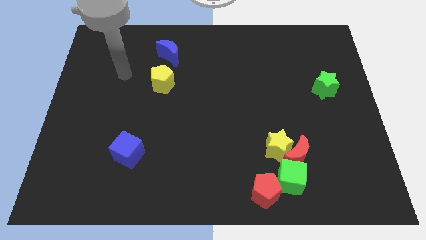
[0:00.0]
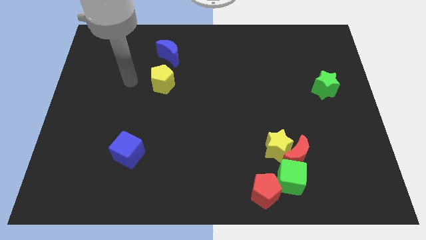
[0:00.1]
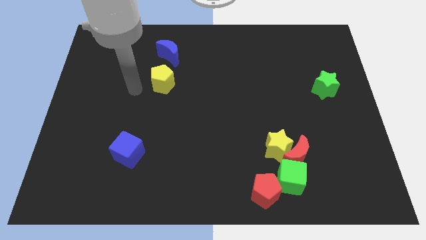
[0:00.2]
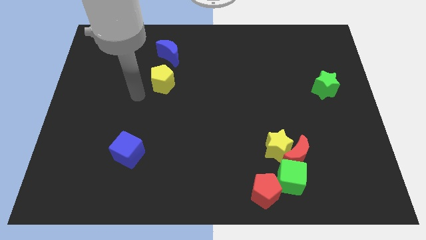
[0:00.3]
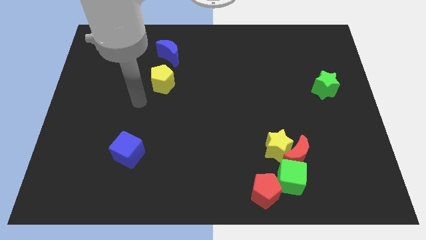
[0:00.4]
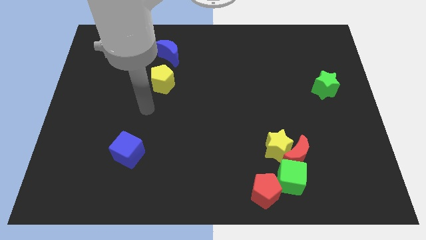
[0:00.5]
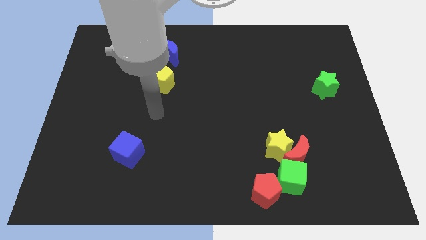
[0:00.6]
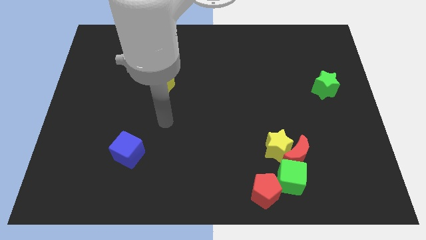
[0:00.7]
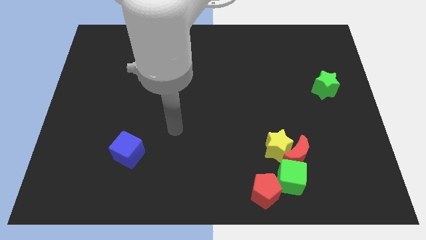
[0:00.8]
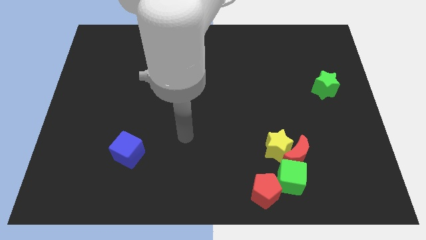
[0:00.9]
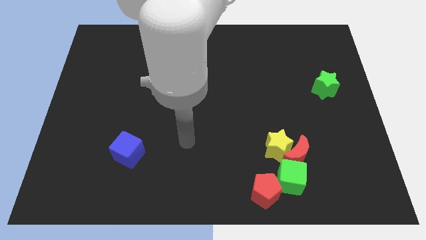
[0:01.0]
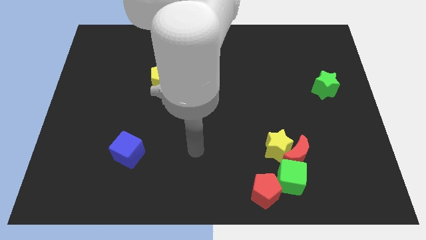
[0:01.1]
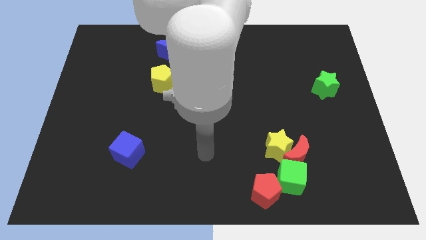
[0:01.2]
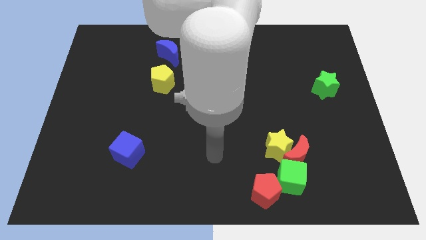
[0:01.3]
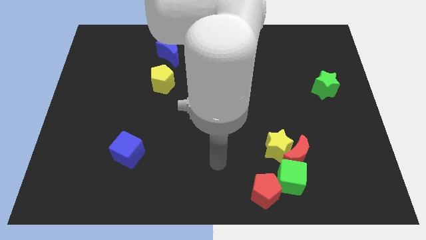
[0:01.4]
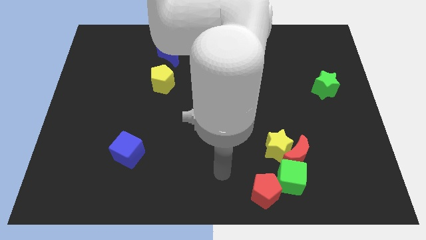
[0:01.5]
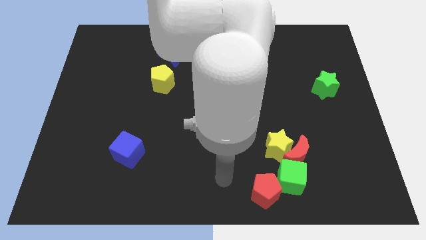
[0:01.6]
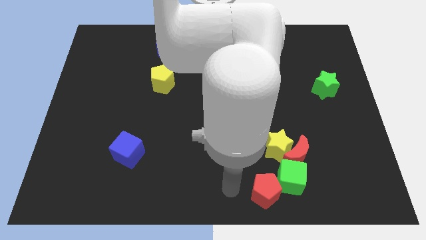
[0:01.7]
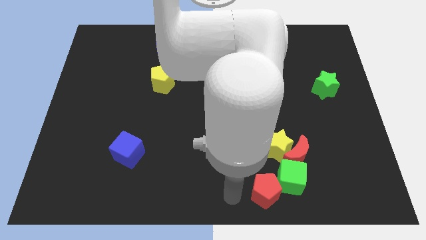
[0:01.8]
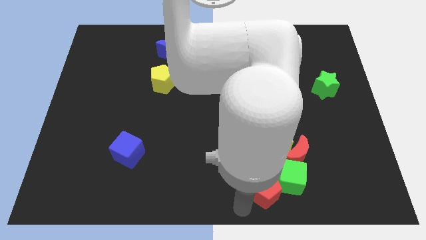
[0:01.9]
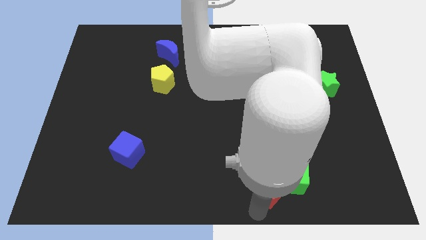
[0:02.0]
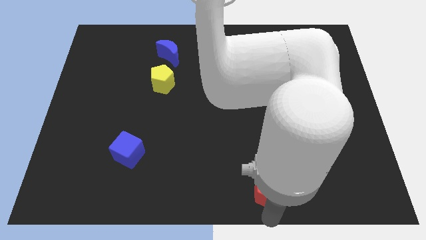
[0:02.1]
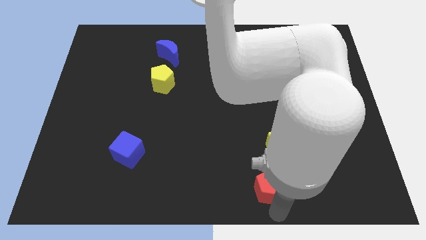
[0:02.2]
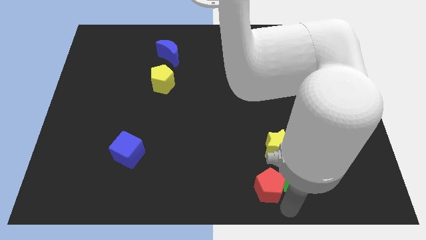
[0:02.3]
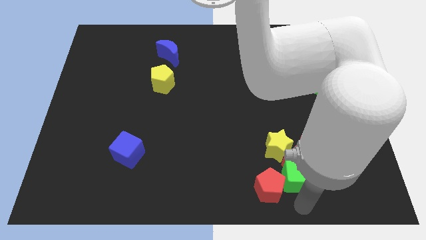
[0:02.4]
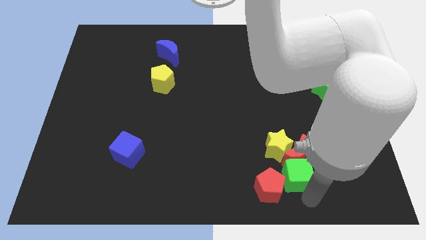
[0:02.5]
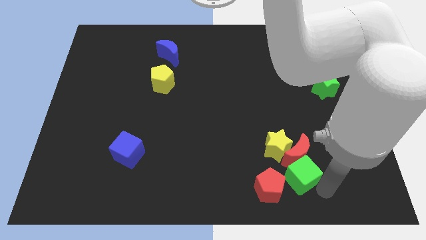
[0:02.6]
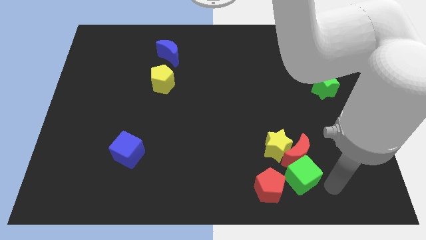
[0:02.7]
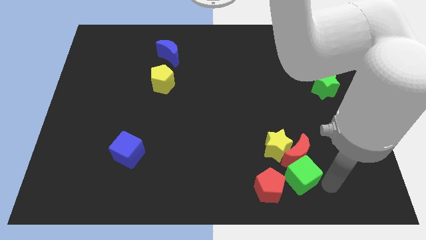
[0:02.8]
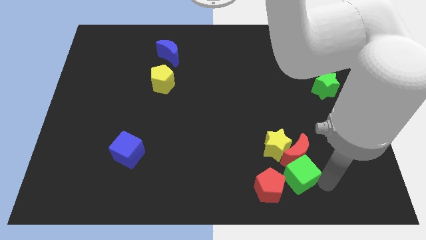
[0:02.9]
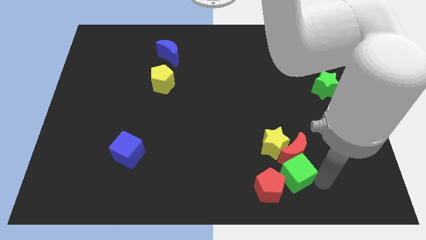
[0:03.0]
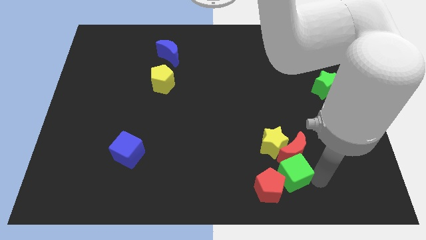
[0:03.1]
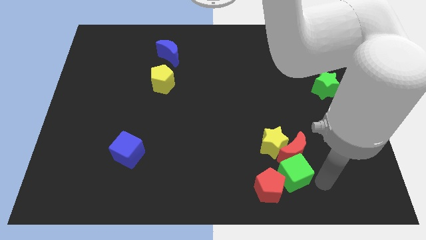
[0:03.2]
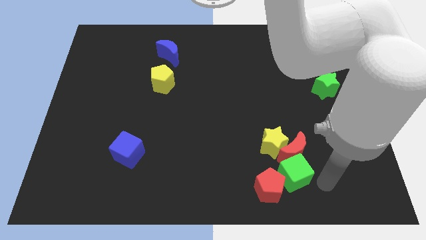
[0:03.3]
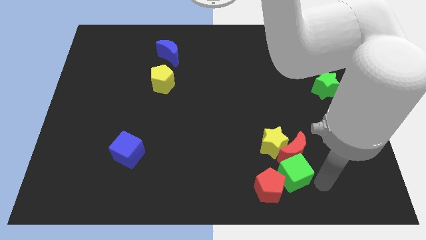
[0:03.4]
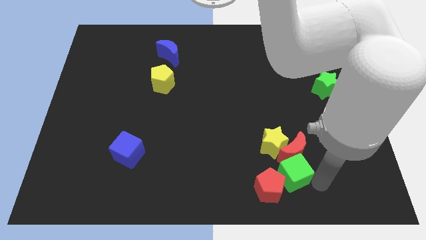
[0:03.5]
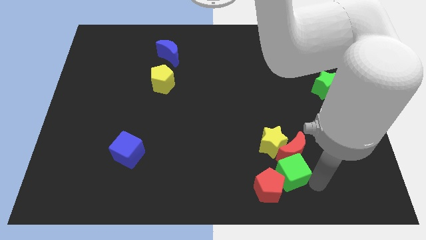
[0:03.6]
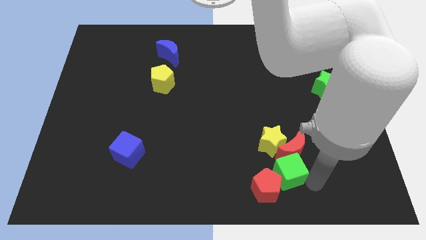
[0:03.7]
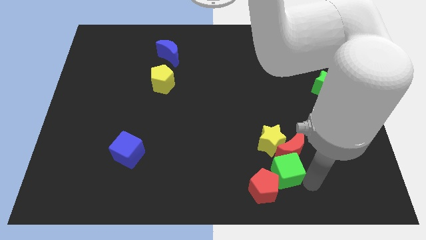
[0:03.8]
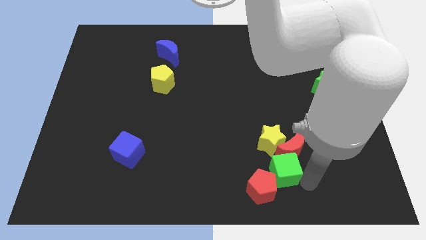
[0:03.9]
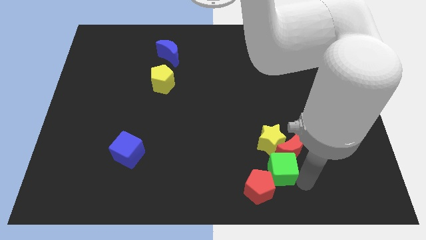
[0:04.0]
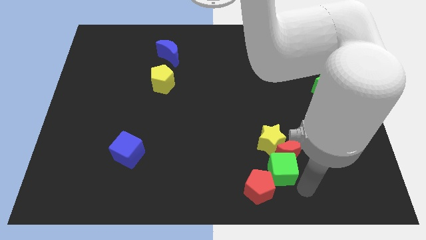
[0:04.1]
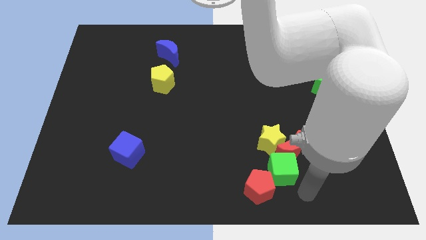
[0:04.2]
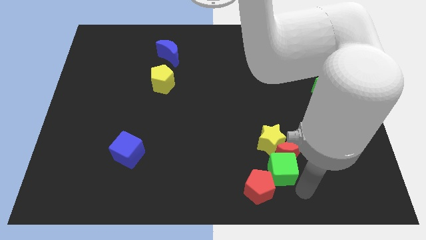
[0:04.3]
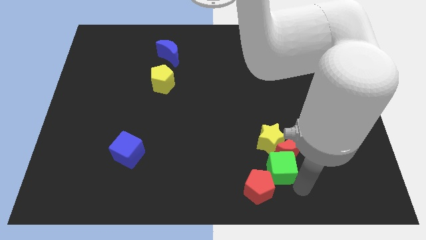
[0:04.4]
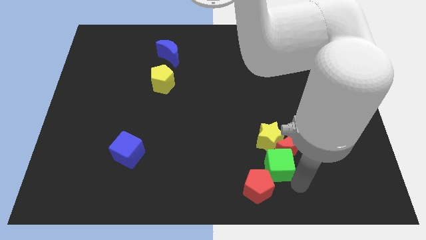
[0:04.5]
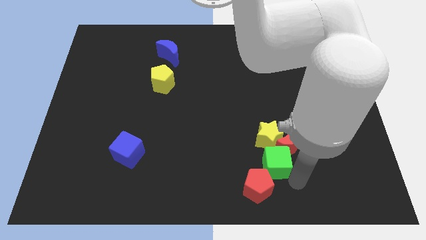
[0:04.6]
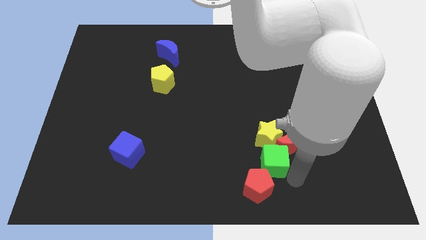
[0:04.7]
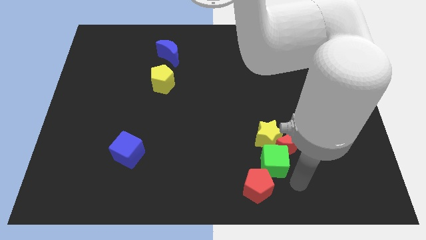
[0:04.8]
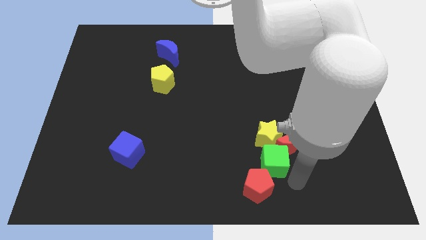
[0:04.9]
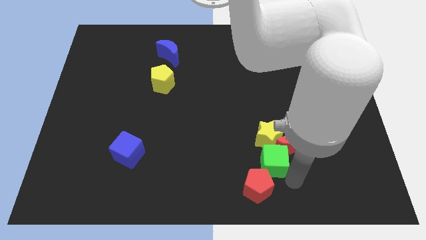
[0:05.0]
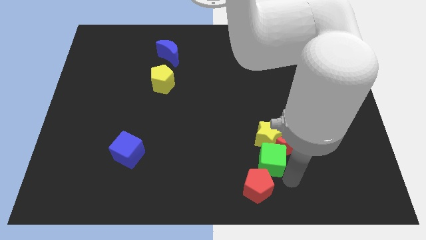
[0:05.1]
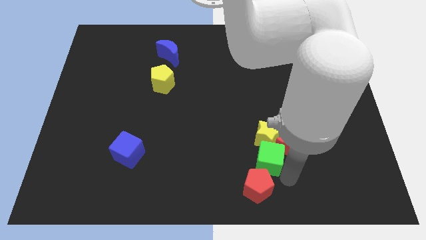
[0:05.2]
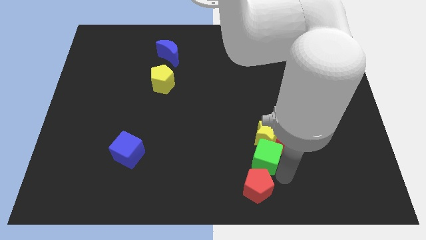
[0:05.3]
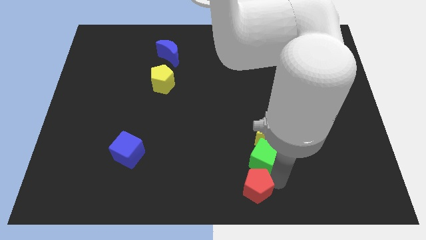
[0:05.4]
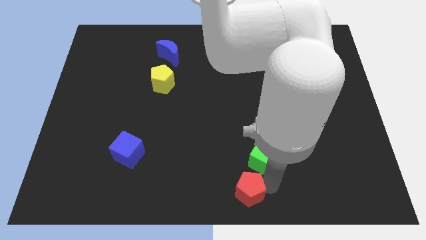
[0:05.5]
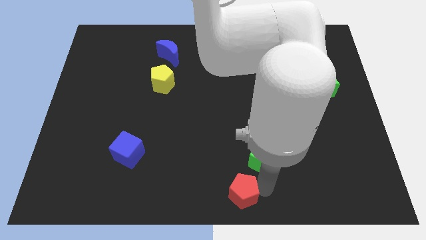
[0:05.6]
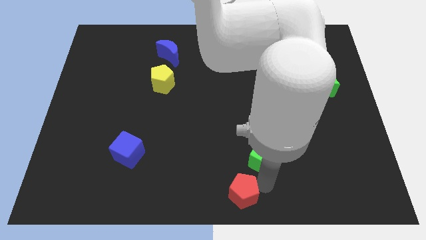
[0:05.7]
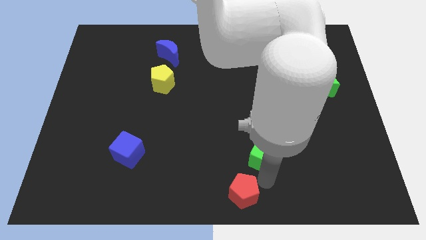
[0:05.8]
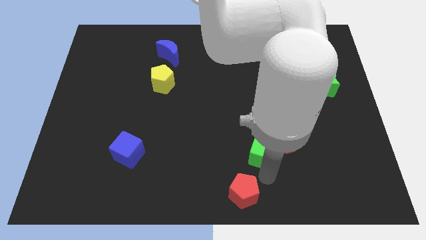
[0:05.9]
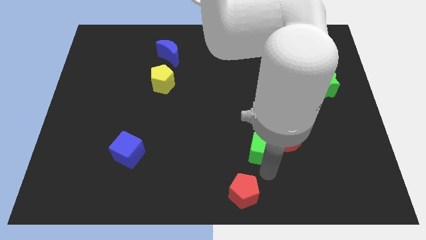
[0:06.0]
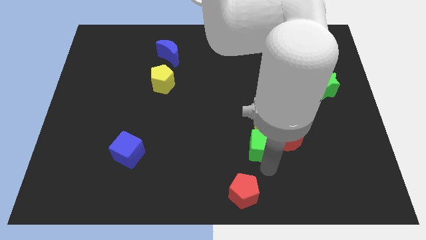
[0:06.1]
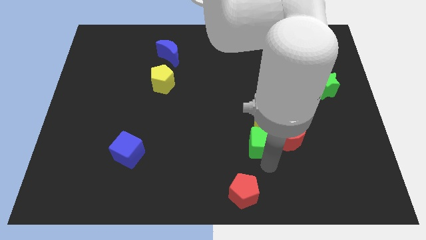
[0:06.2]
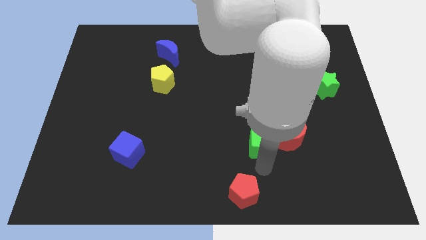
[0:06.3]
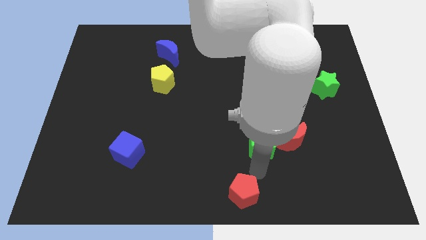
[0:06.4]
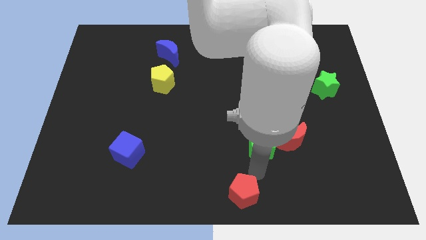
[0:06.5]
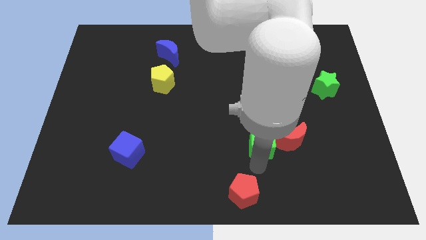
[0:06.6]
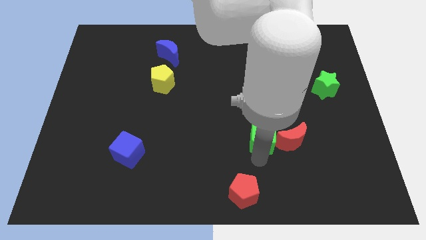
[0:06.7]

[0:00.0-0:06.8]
put the green cube to the top left side of the red moon
